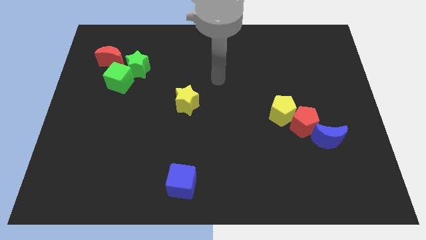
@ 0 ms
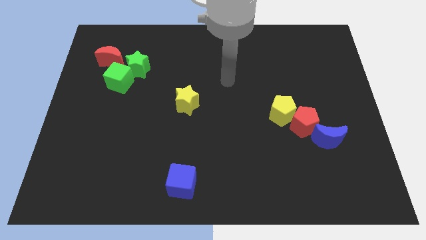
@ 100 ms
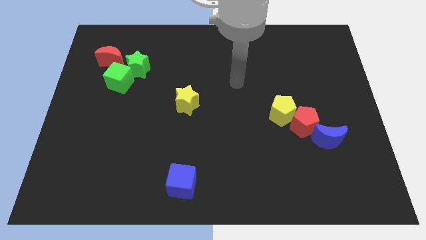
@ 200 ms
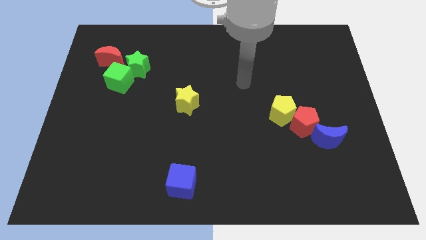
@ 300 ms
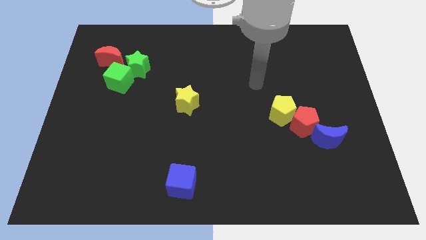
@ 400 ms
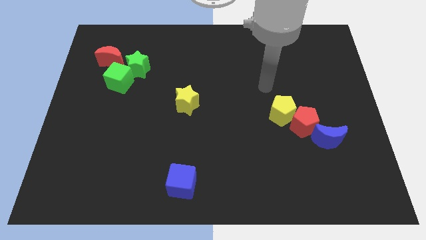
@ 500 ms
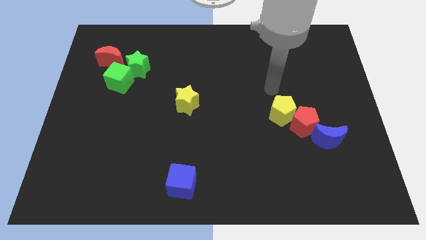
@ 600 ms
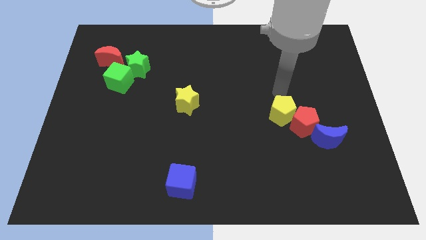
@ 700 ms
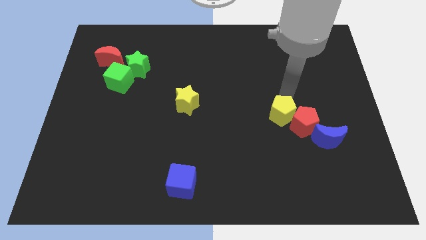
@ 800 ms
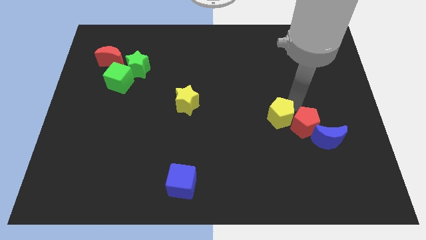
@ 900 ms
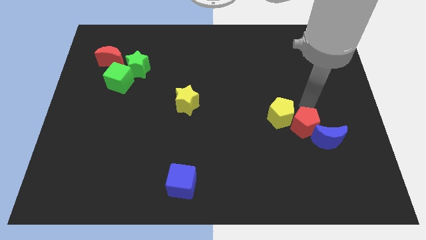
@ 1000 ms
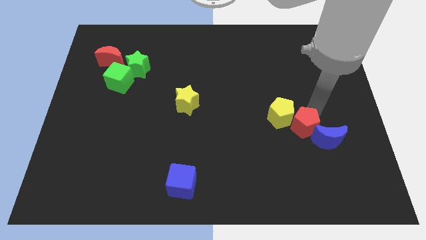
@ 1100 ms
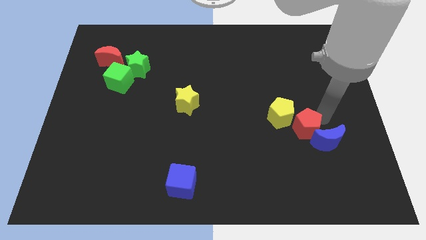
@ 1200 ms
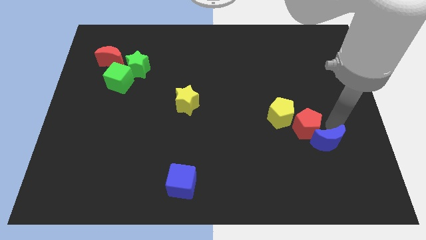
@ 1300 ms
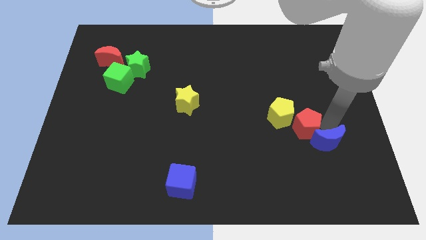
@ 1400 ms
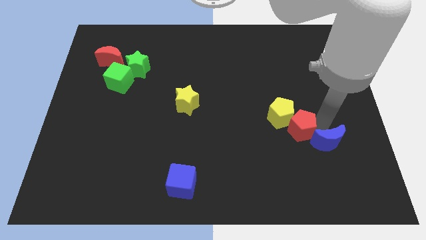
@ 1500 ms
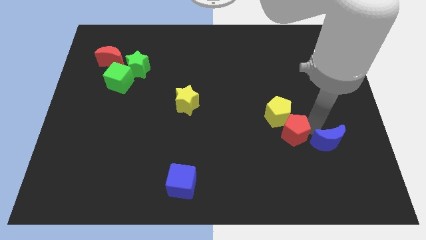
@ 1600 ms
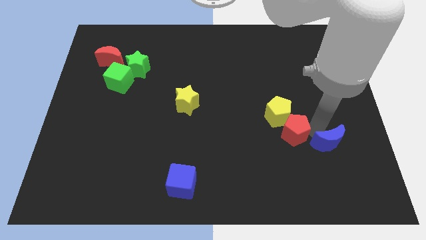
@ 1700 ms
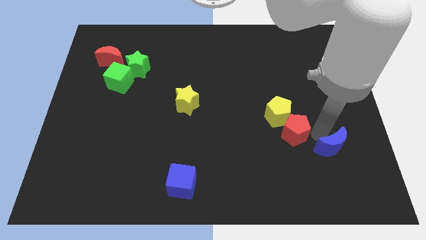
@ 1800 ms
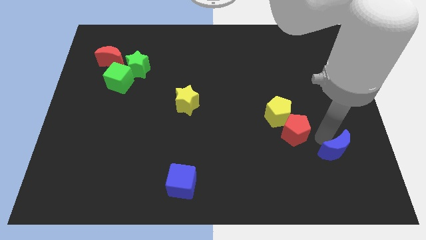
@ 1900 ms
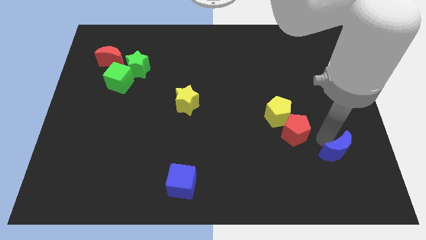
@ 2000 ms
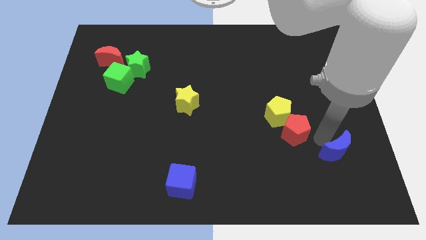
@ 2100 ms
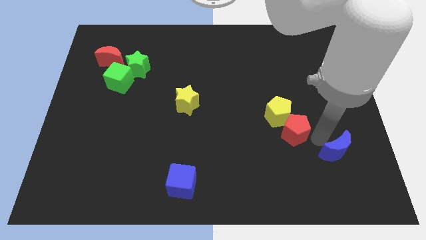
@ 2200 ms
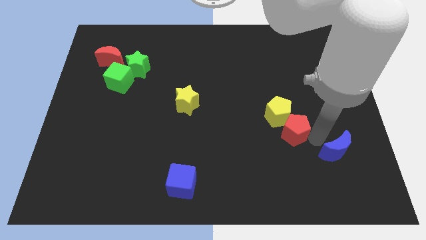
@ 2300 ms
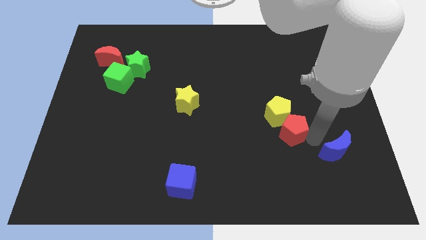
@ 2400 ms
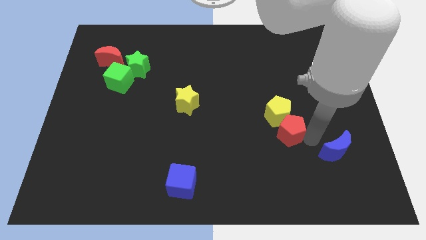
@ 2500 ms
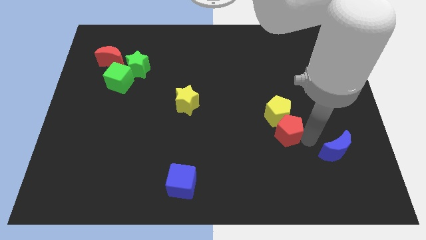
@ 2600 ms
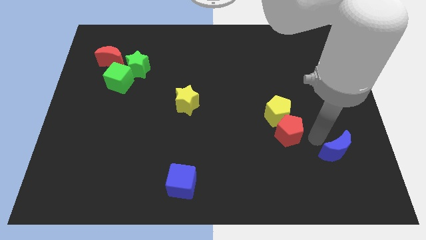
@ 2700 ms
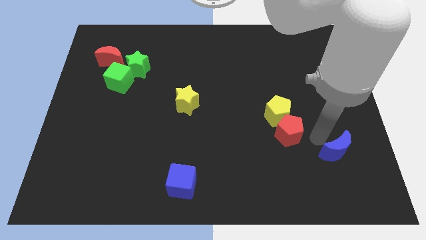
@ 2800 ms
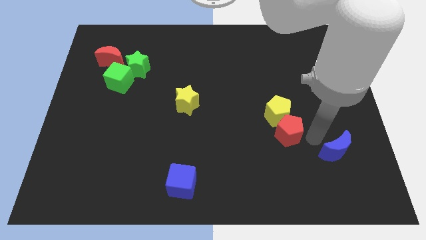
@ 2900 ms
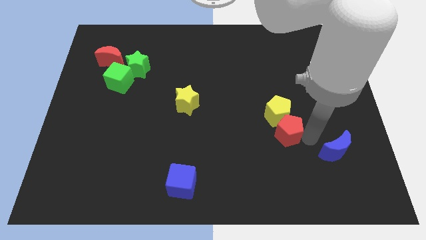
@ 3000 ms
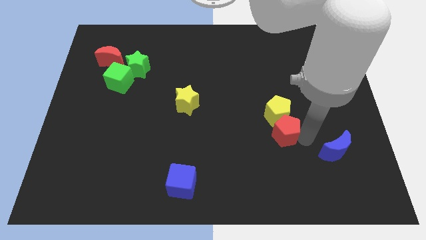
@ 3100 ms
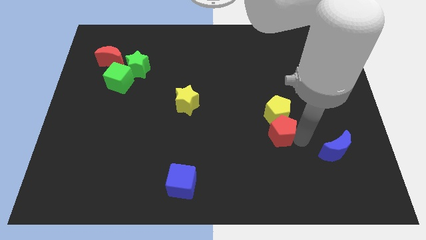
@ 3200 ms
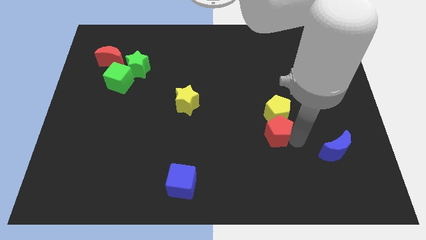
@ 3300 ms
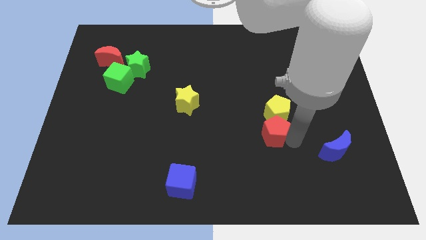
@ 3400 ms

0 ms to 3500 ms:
move the red pentagon a bit to the left

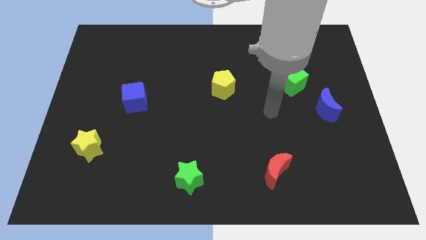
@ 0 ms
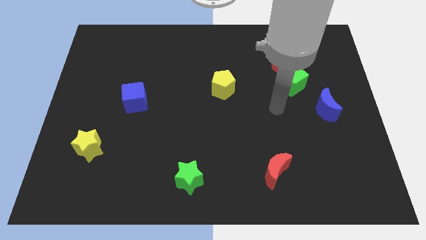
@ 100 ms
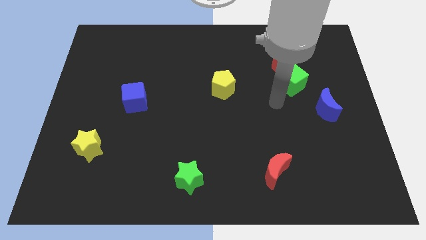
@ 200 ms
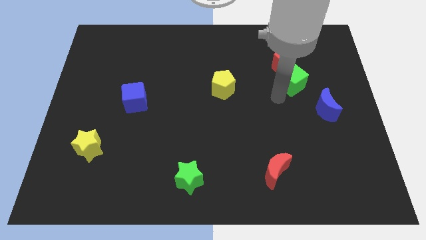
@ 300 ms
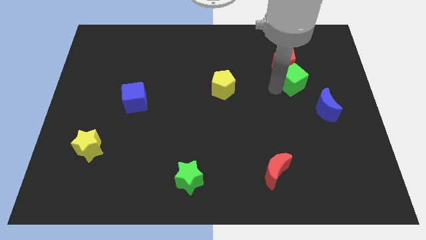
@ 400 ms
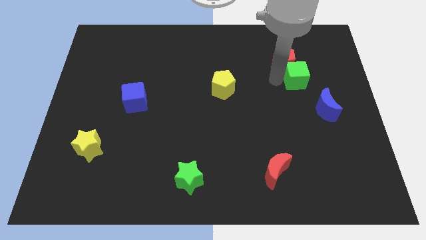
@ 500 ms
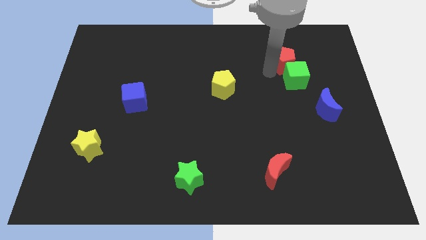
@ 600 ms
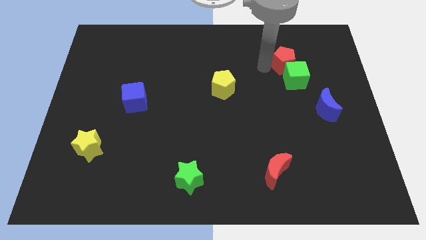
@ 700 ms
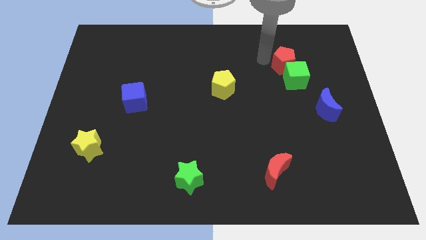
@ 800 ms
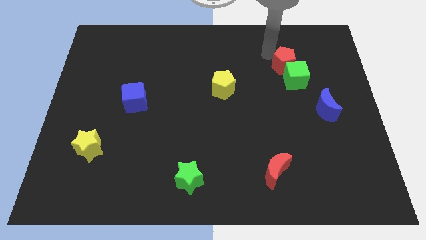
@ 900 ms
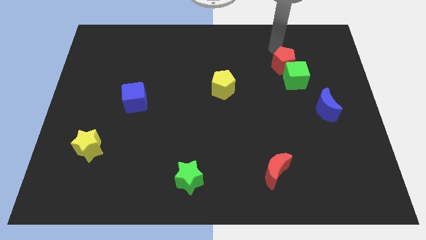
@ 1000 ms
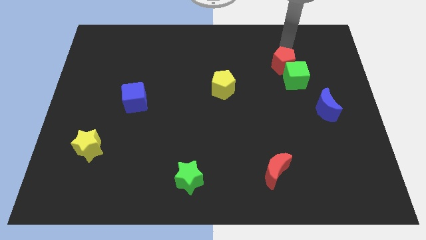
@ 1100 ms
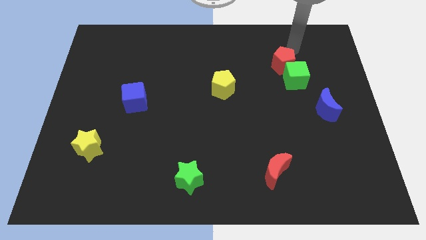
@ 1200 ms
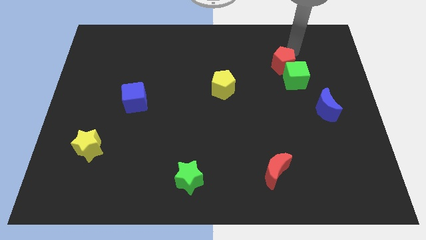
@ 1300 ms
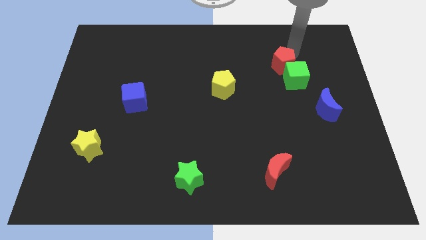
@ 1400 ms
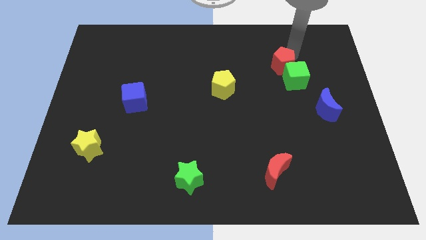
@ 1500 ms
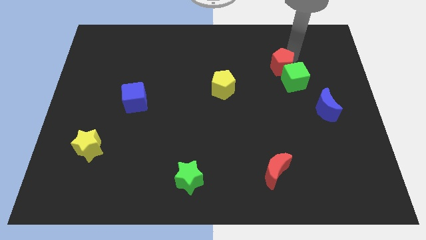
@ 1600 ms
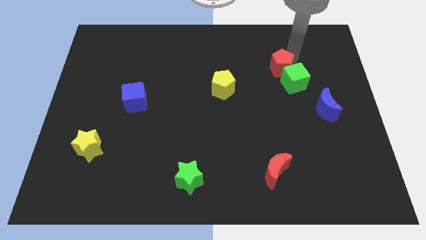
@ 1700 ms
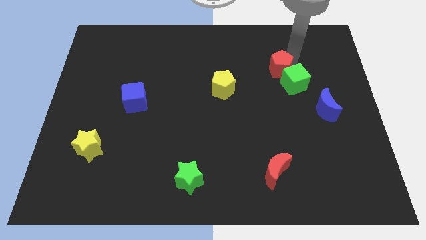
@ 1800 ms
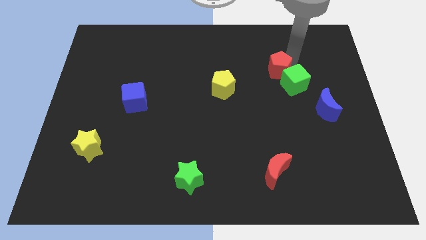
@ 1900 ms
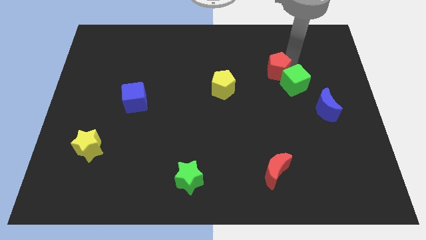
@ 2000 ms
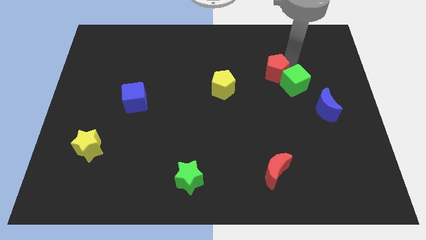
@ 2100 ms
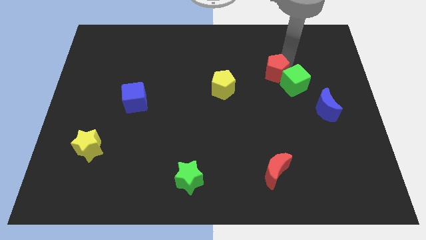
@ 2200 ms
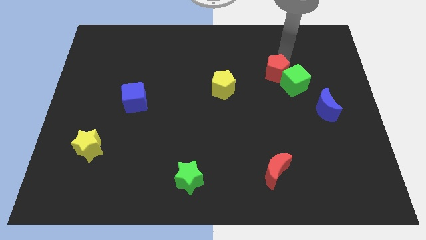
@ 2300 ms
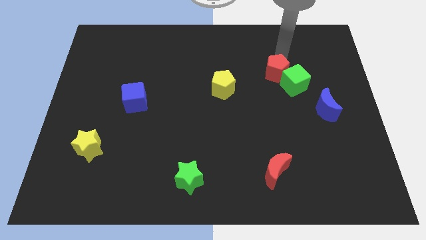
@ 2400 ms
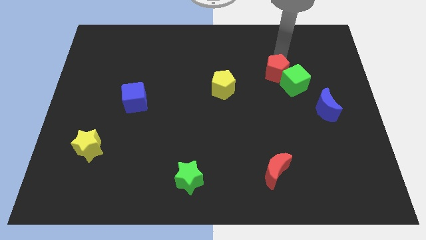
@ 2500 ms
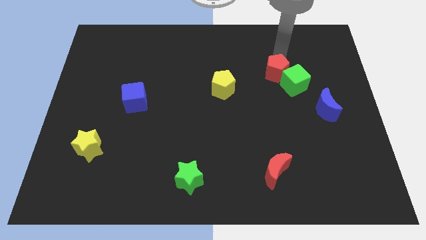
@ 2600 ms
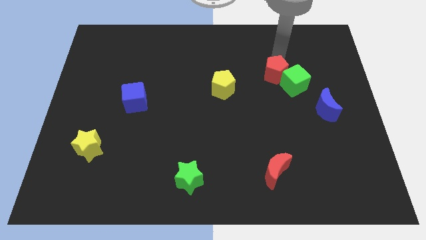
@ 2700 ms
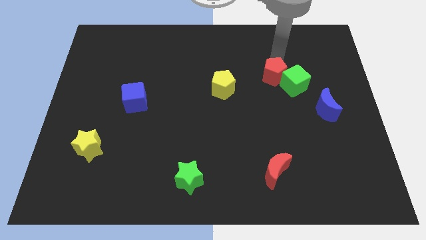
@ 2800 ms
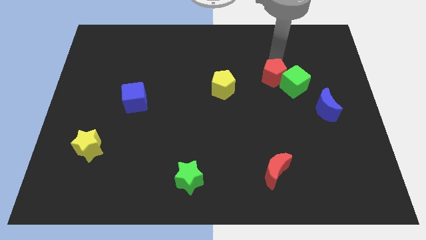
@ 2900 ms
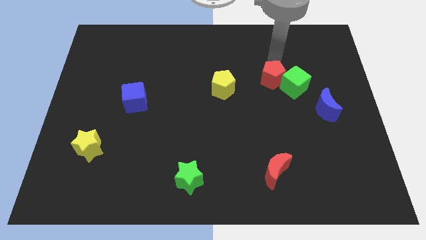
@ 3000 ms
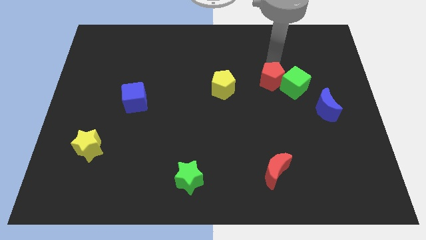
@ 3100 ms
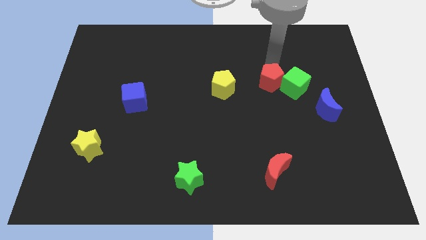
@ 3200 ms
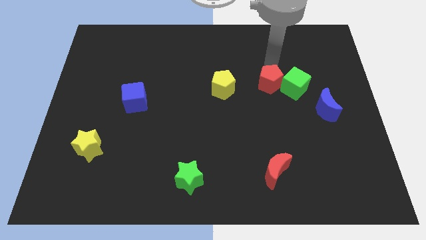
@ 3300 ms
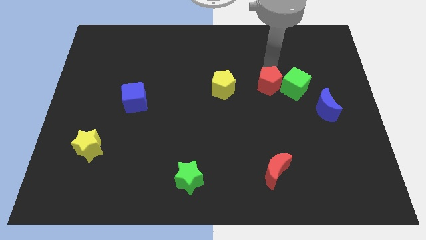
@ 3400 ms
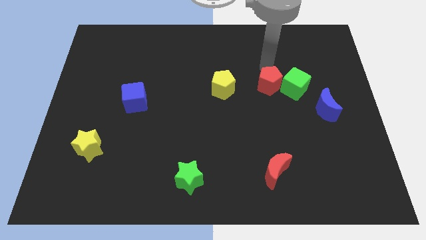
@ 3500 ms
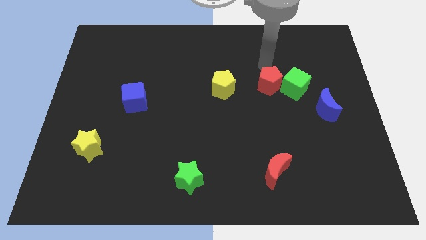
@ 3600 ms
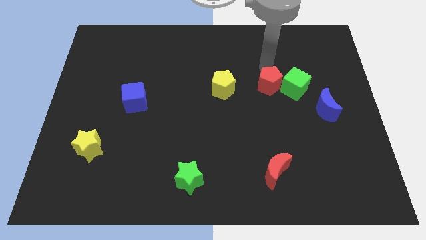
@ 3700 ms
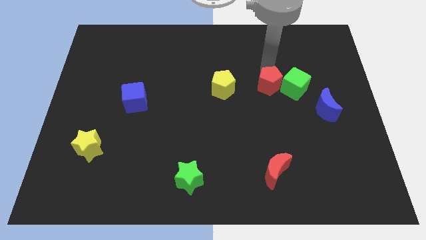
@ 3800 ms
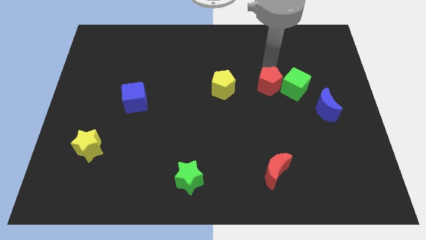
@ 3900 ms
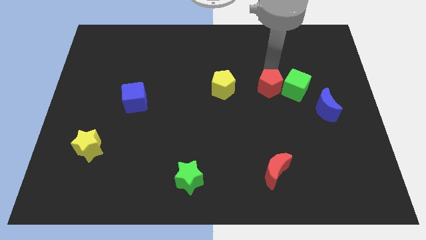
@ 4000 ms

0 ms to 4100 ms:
move the red pentagon a bit downwards

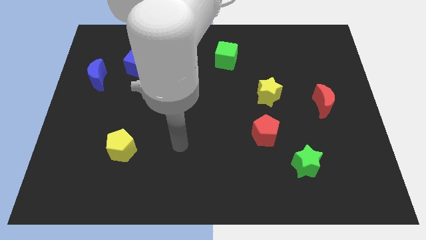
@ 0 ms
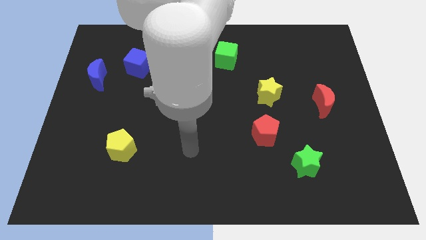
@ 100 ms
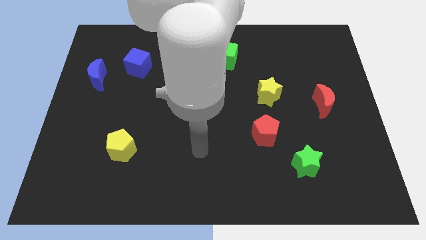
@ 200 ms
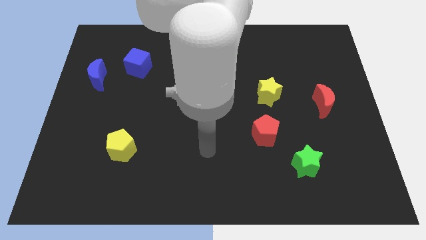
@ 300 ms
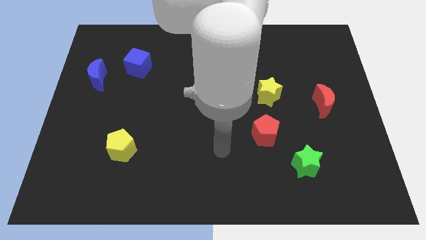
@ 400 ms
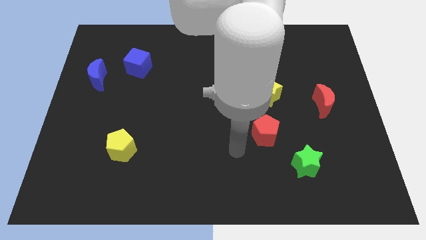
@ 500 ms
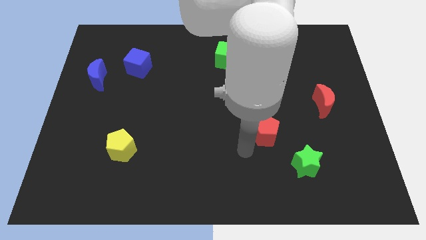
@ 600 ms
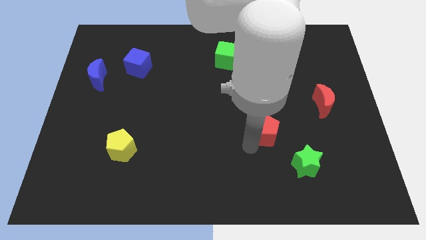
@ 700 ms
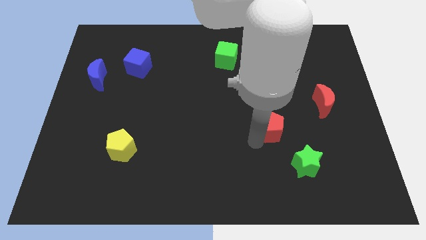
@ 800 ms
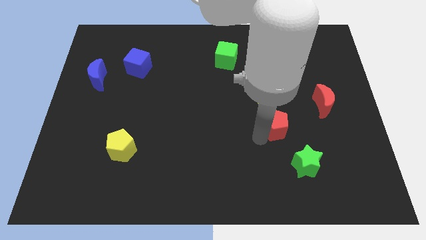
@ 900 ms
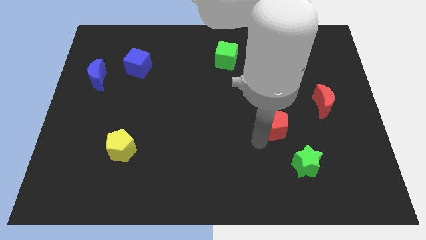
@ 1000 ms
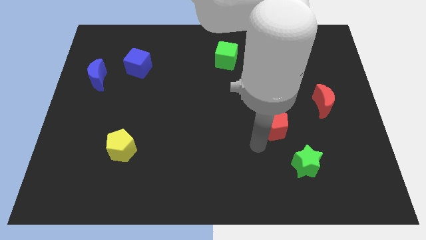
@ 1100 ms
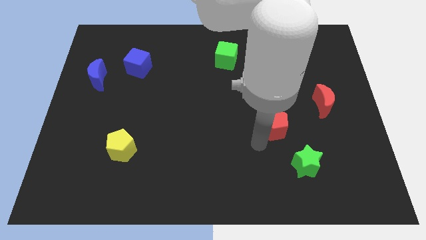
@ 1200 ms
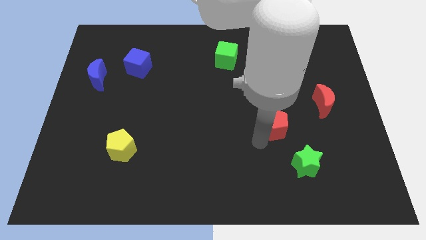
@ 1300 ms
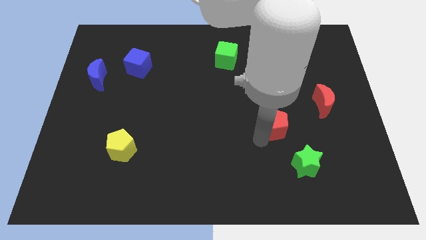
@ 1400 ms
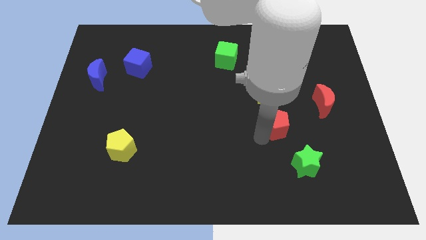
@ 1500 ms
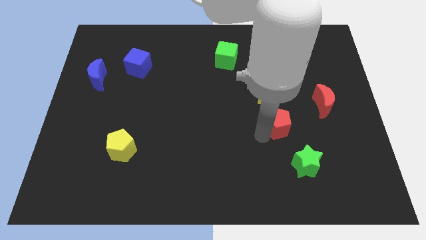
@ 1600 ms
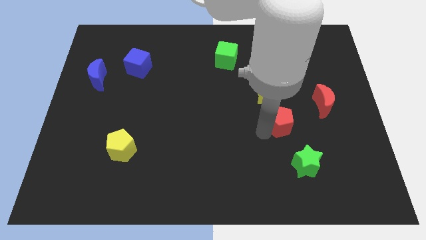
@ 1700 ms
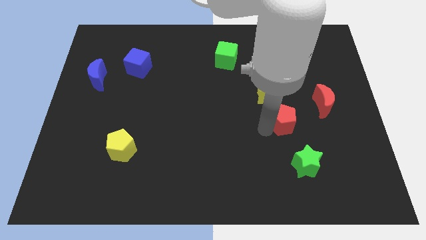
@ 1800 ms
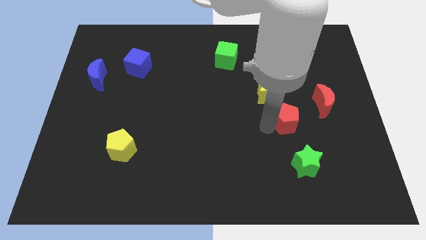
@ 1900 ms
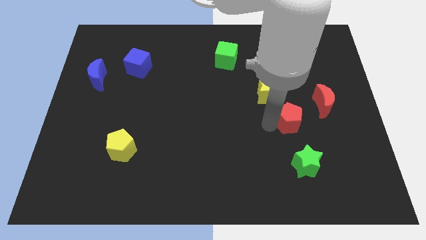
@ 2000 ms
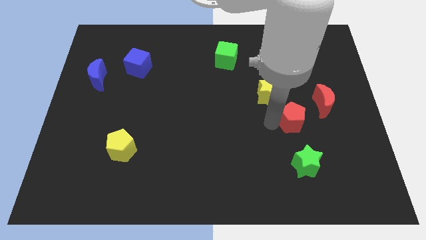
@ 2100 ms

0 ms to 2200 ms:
move the red pentagon a little bit up and right
